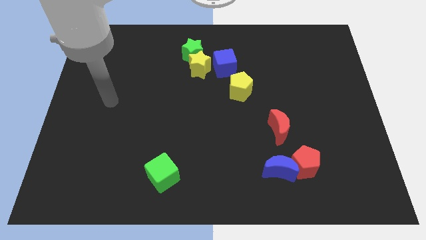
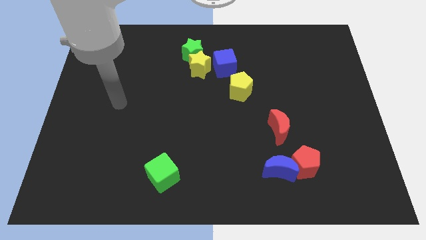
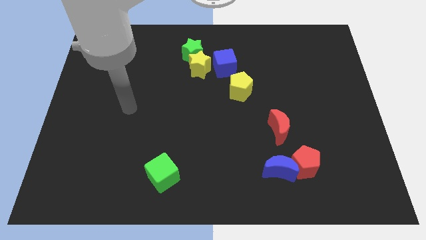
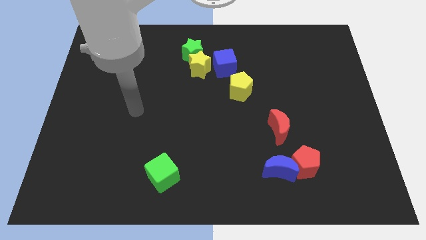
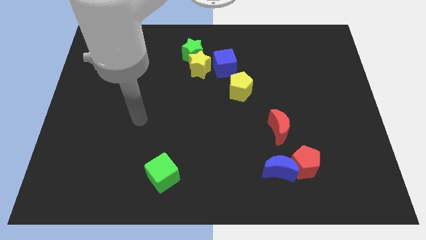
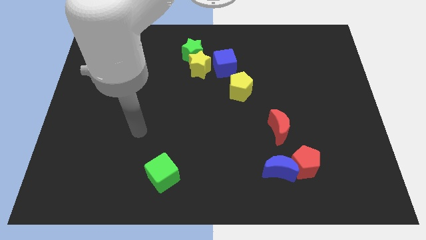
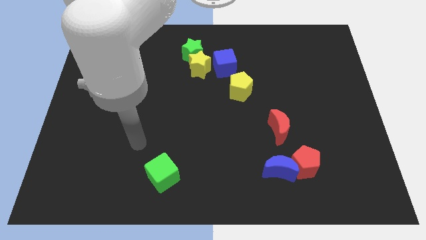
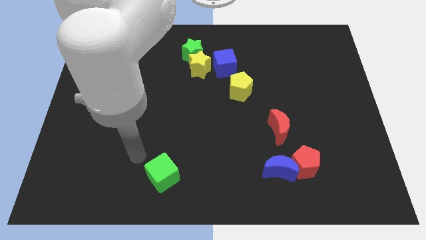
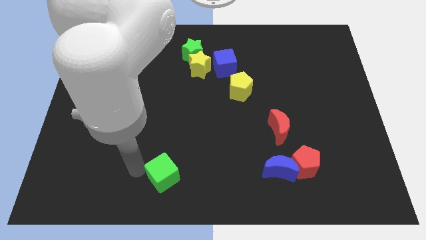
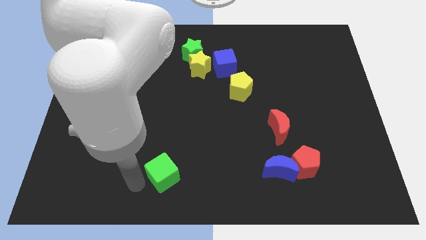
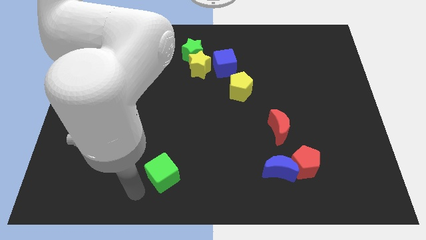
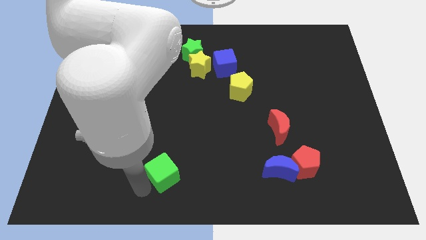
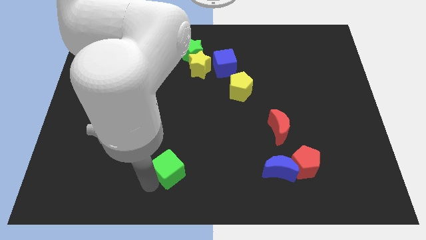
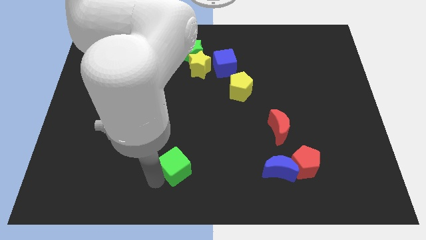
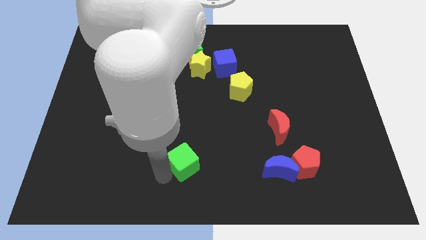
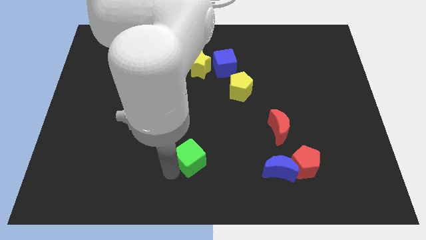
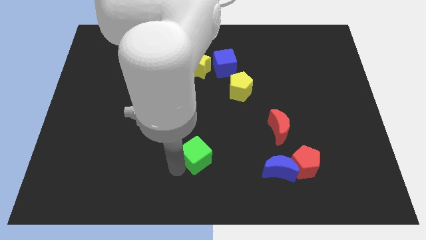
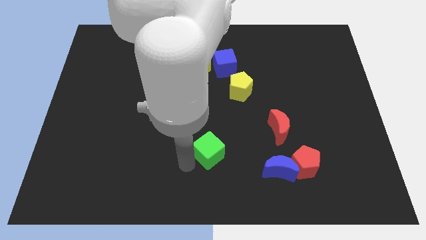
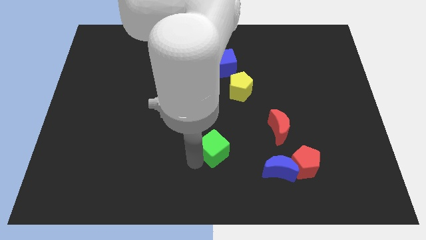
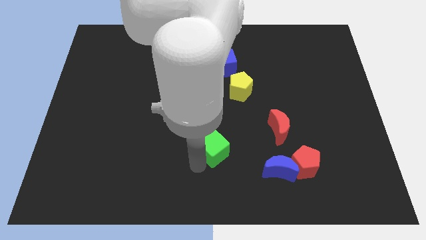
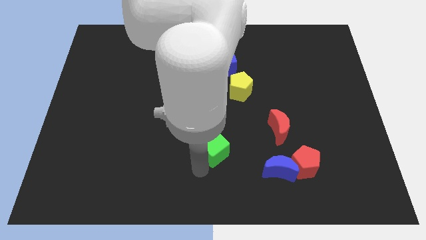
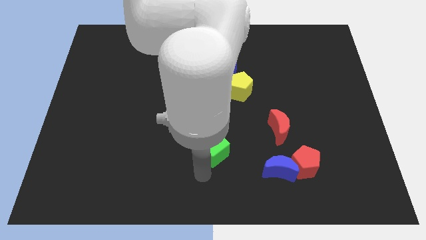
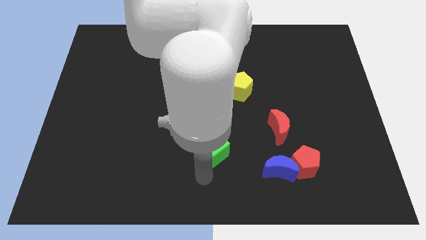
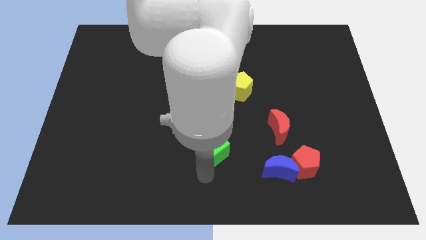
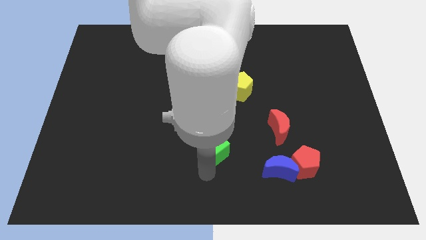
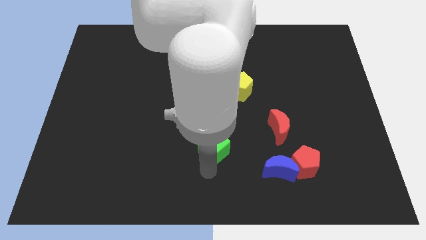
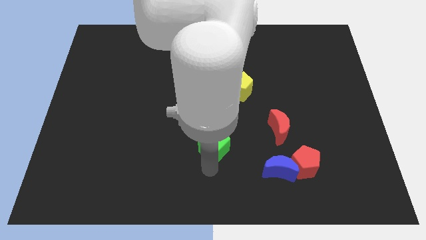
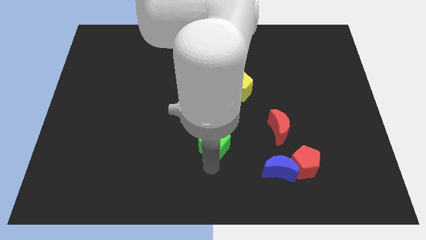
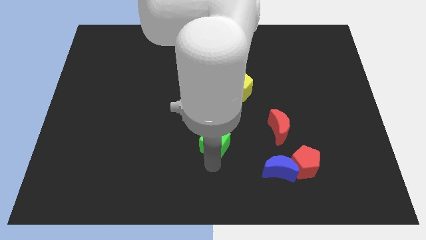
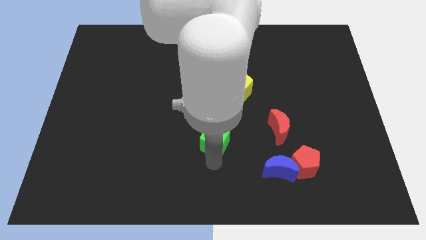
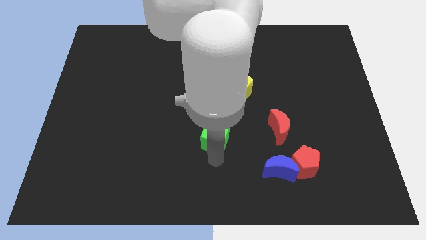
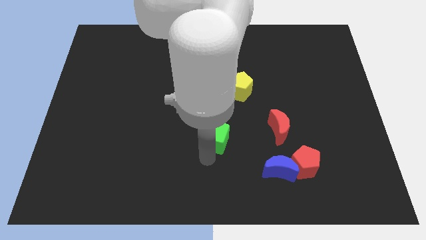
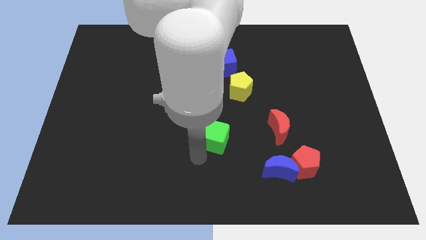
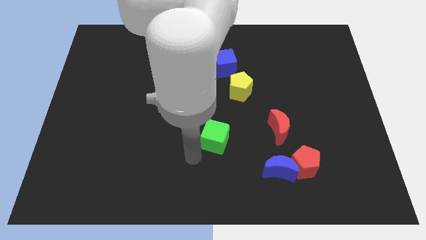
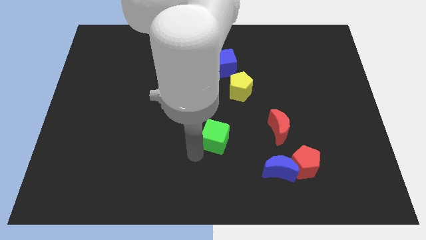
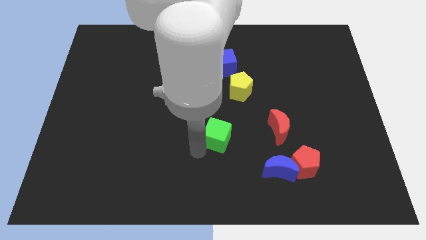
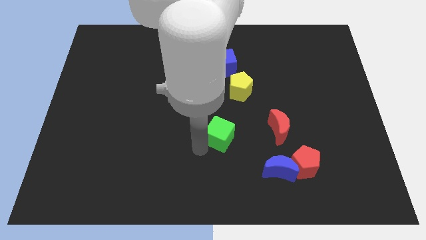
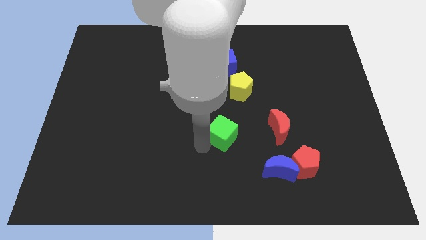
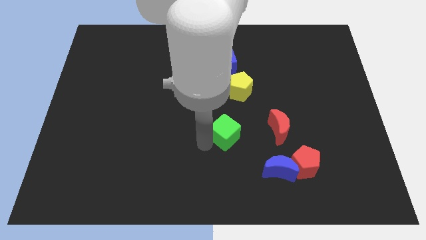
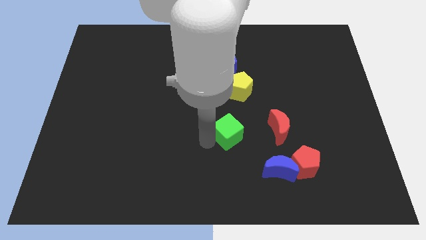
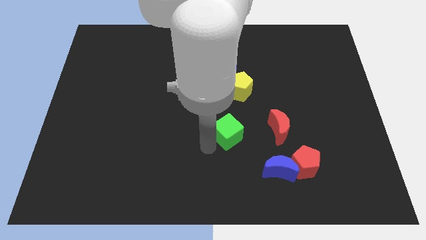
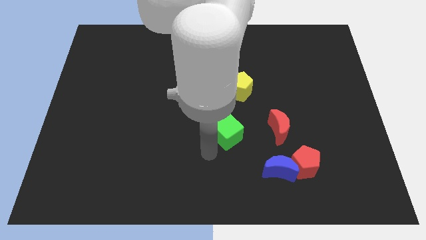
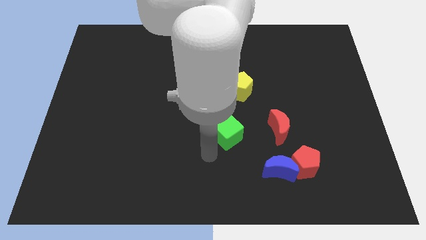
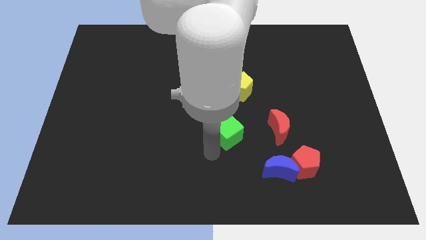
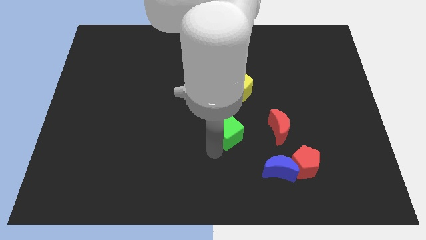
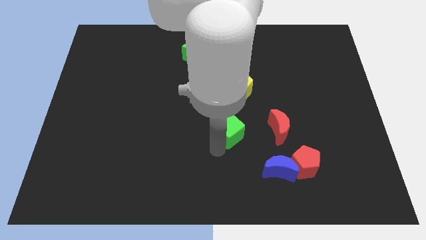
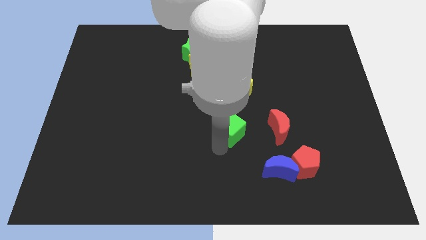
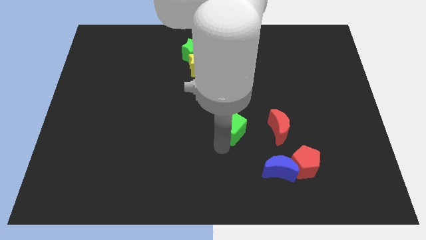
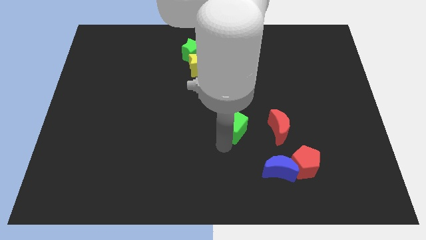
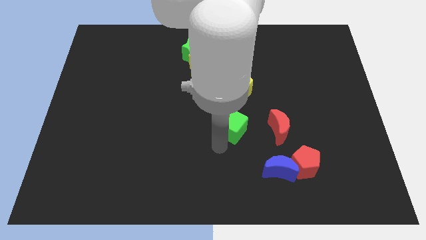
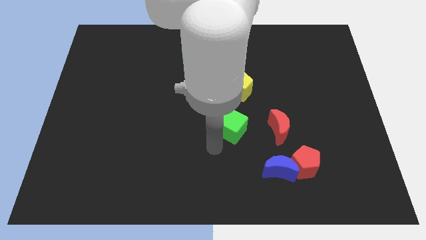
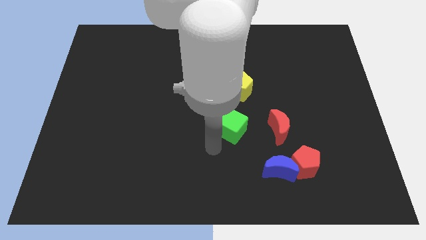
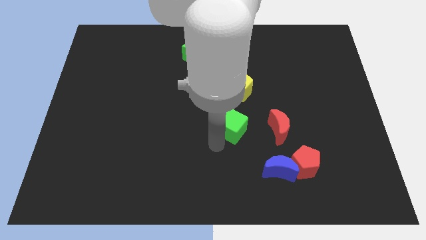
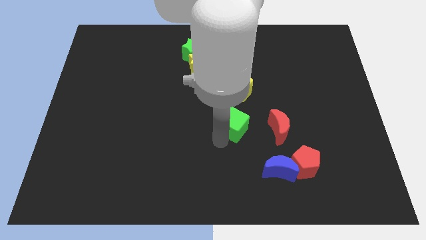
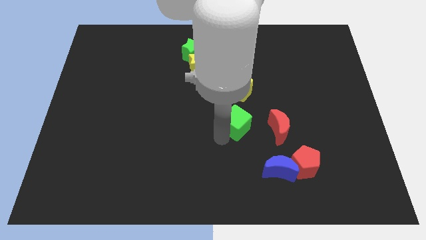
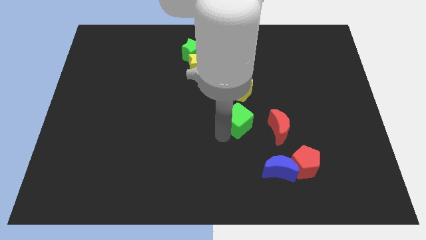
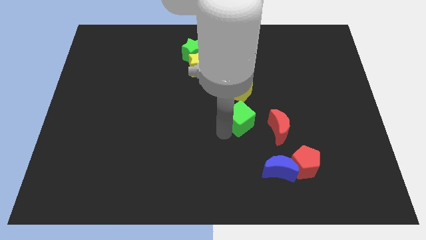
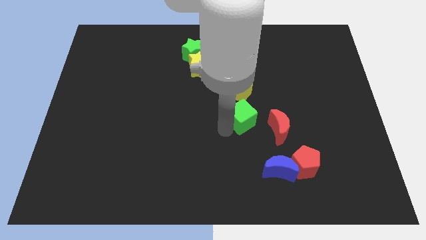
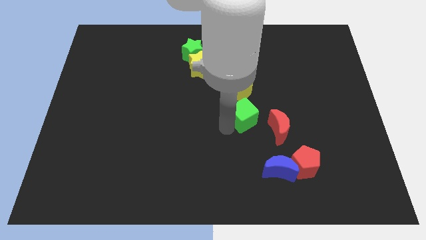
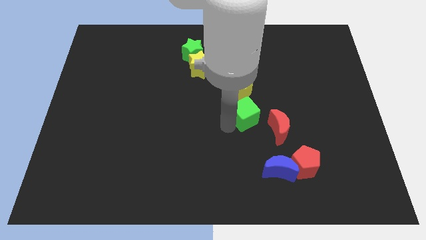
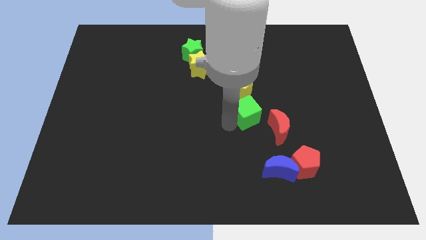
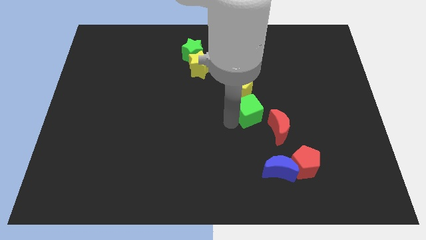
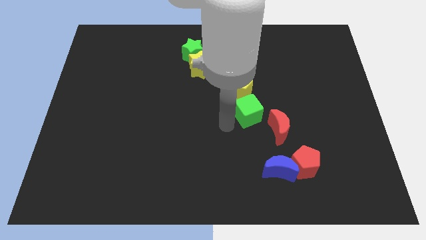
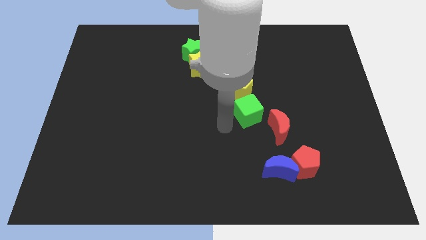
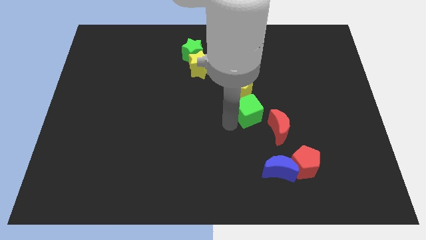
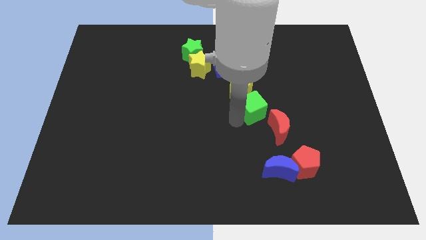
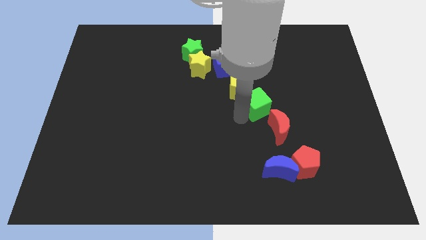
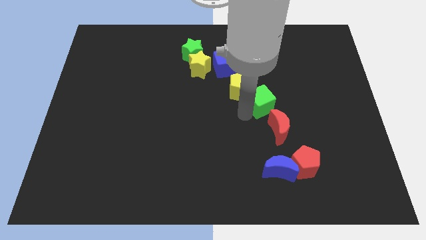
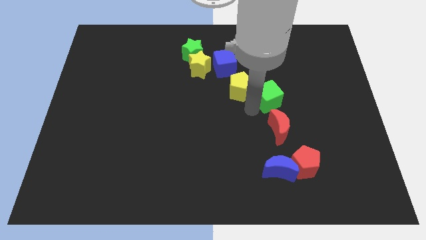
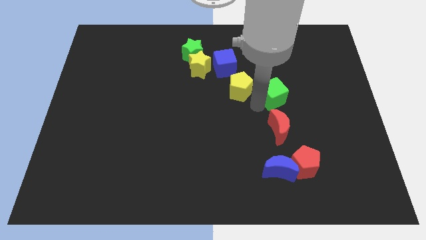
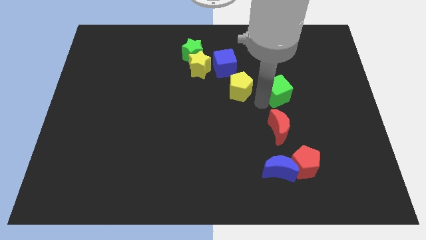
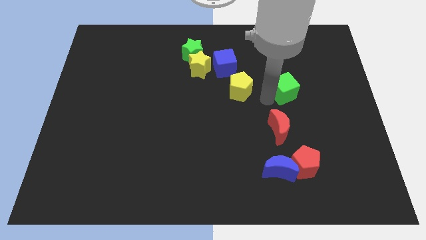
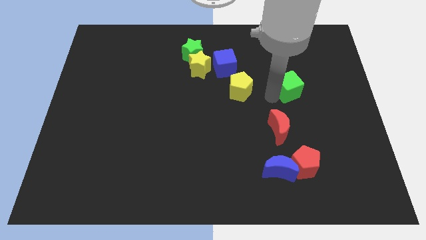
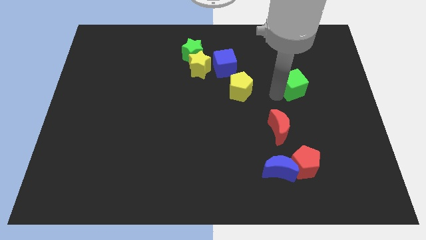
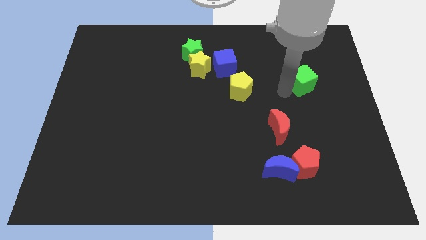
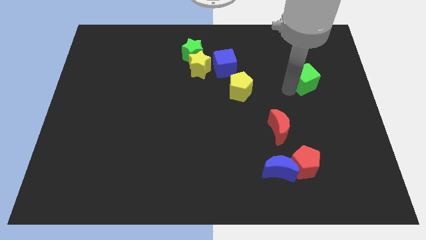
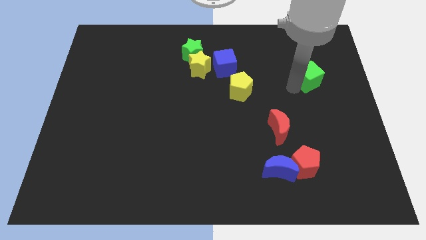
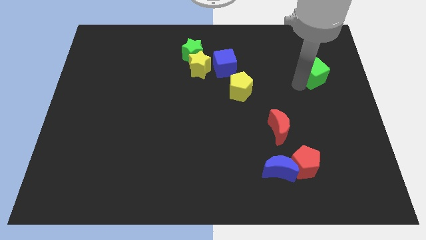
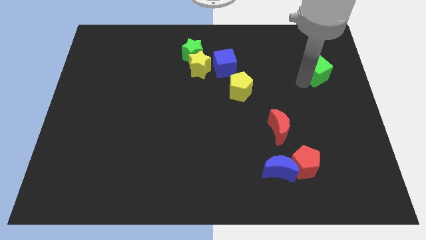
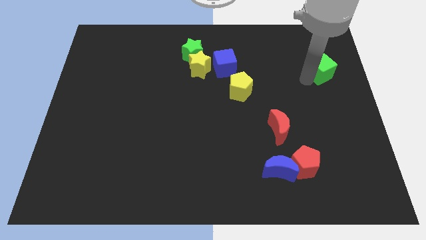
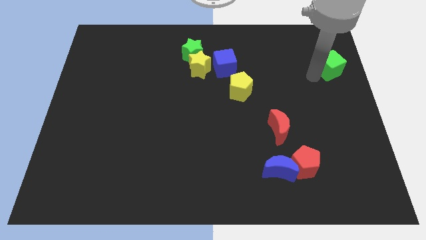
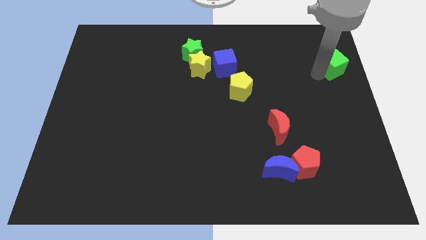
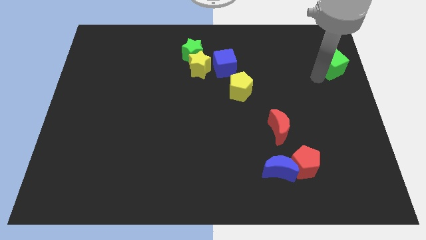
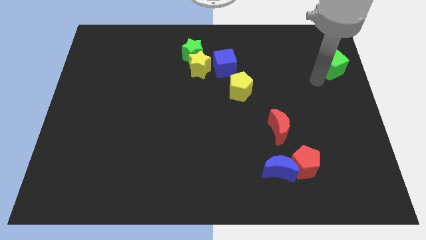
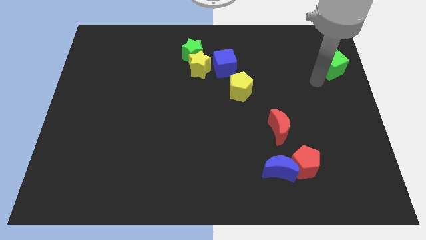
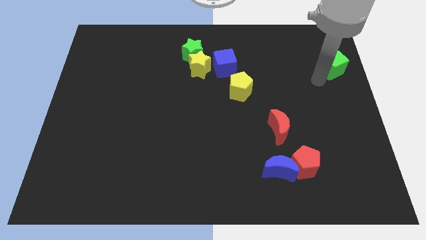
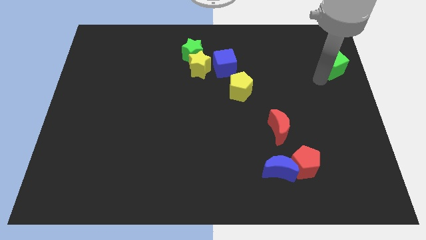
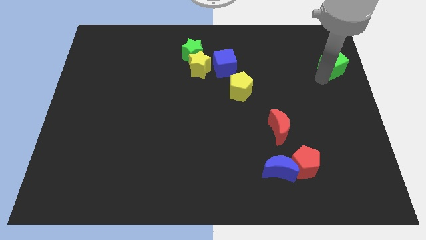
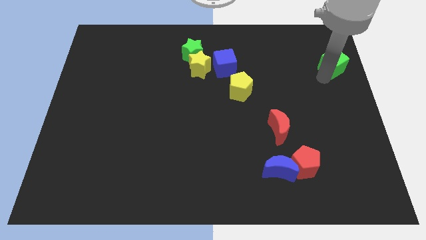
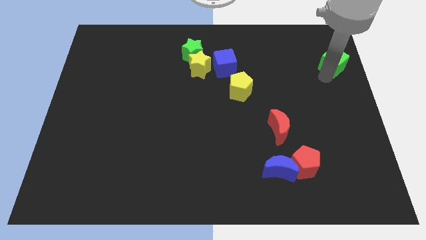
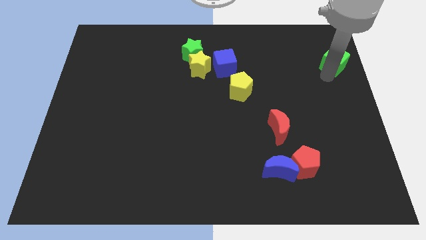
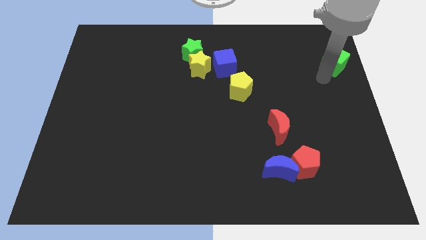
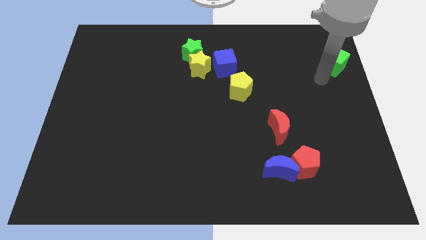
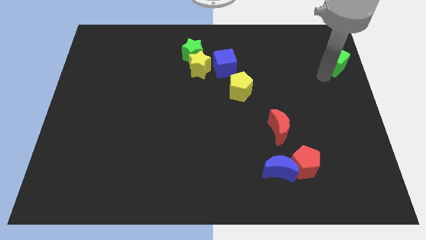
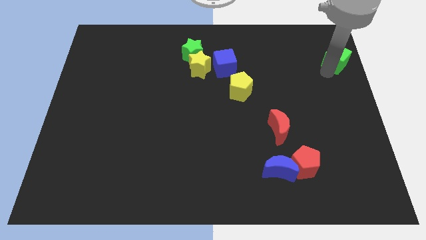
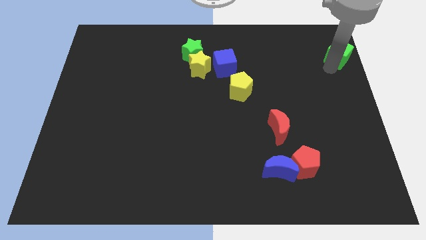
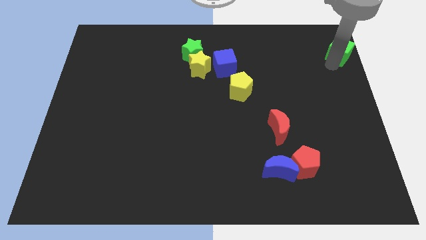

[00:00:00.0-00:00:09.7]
slide the green cube to the top right corner
